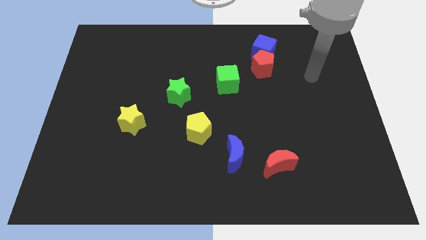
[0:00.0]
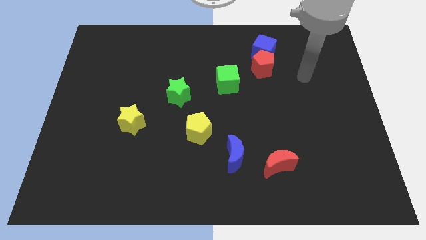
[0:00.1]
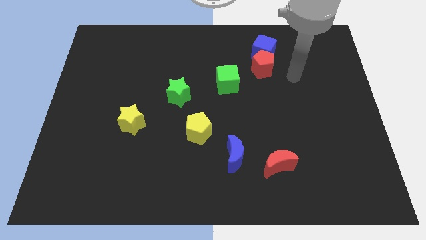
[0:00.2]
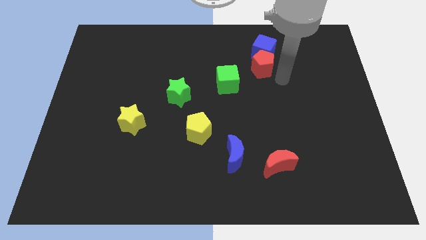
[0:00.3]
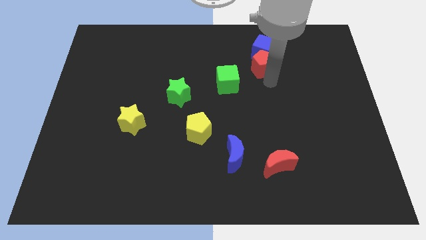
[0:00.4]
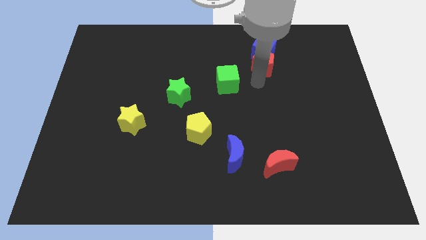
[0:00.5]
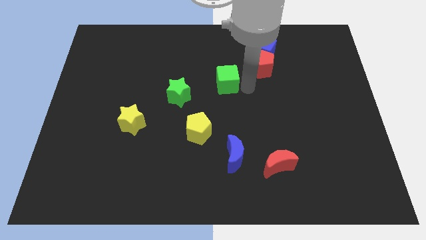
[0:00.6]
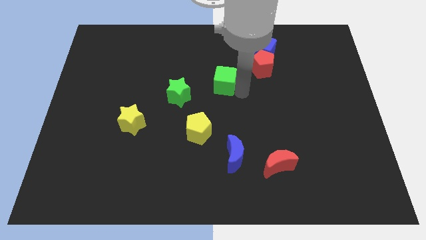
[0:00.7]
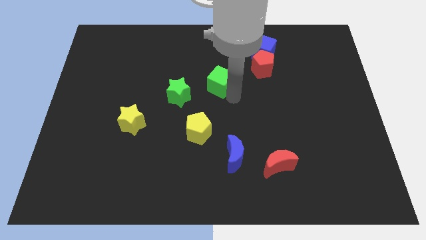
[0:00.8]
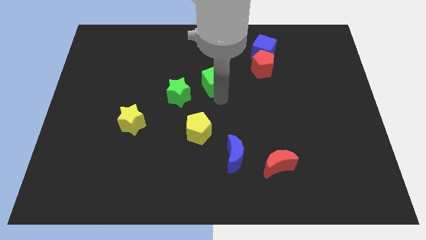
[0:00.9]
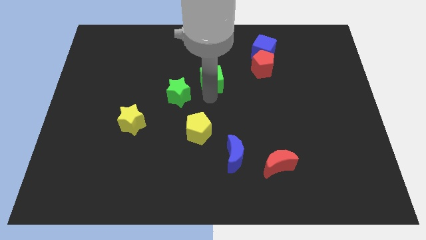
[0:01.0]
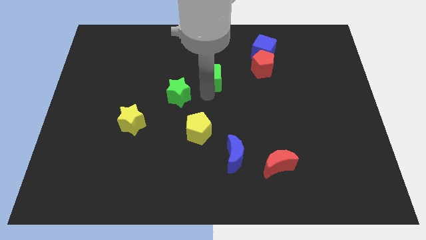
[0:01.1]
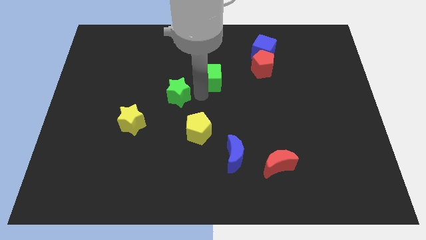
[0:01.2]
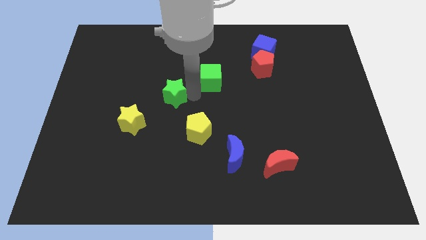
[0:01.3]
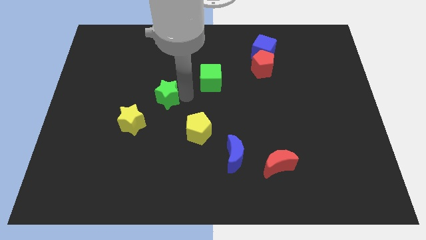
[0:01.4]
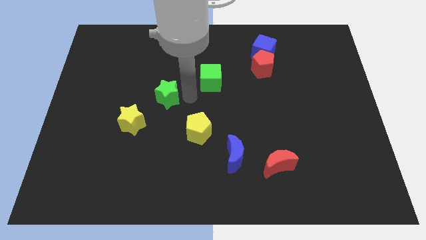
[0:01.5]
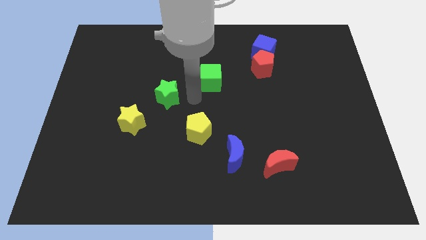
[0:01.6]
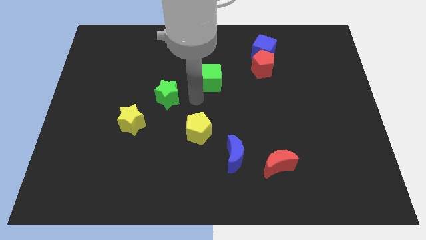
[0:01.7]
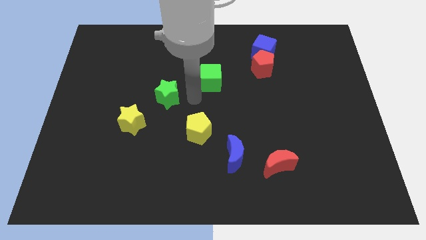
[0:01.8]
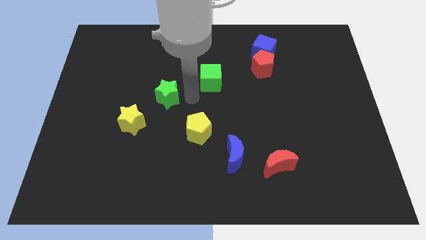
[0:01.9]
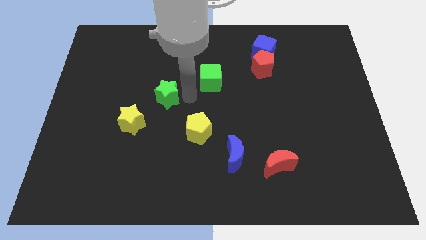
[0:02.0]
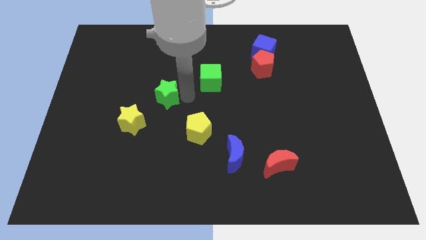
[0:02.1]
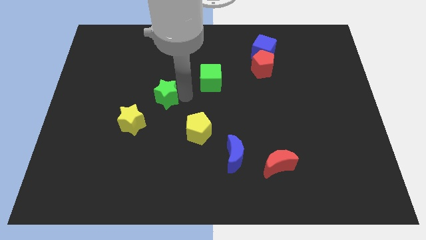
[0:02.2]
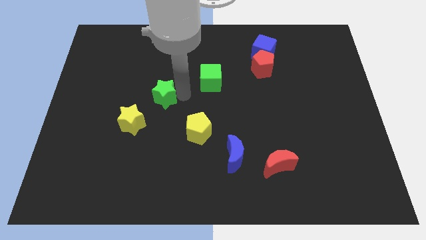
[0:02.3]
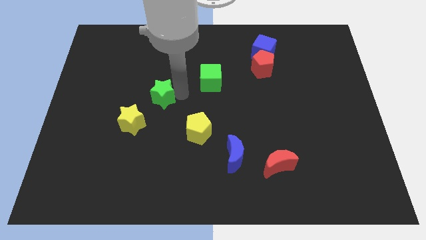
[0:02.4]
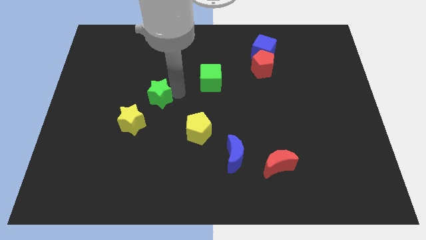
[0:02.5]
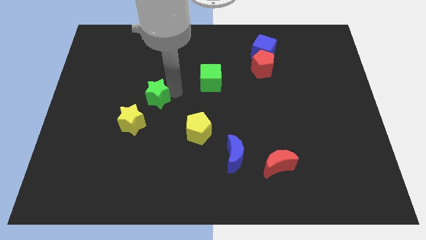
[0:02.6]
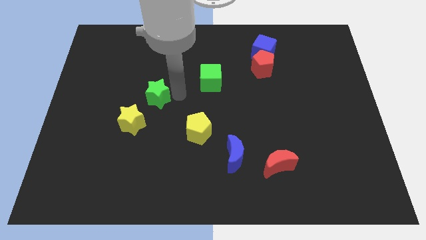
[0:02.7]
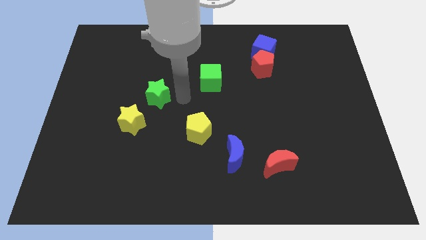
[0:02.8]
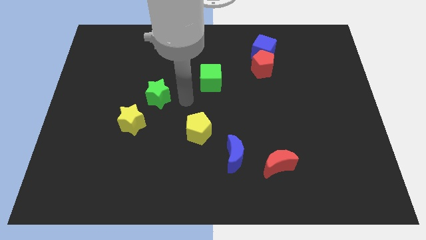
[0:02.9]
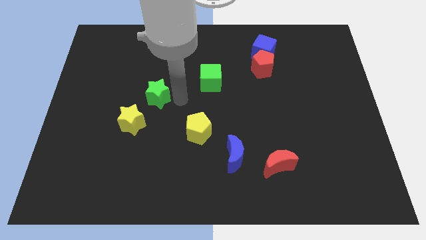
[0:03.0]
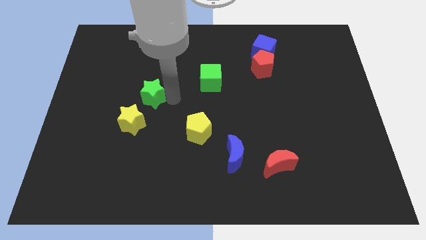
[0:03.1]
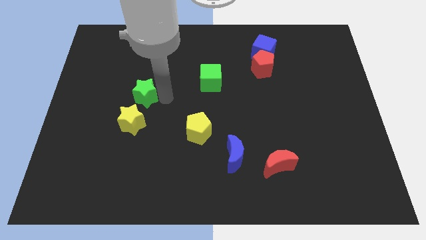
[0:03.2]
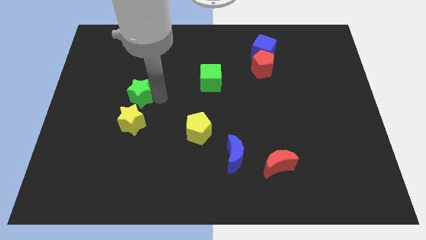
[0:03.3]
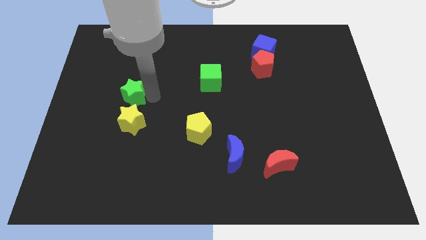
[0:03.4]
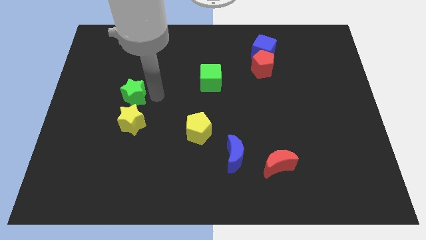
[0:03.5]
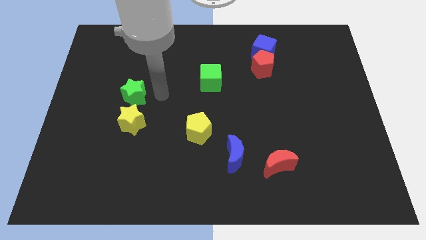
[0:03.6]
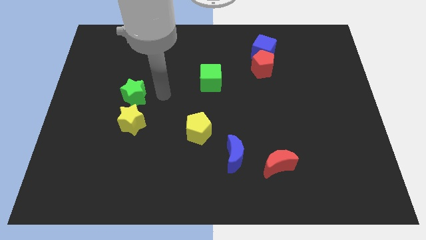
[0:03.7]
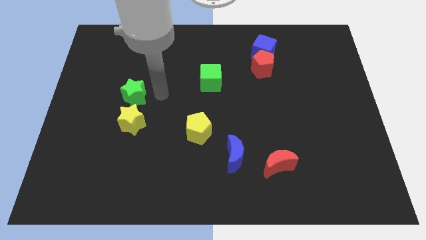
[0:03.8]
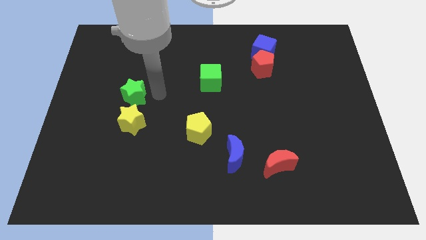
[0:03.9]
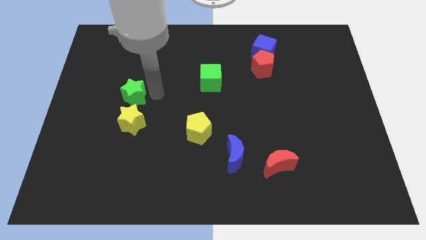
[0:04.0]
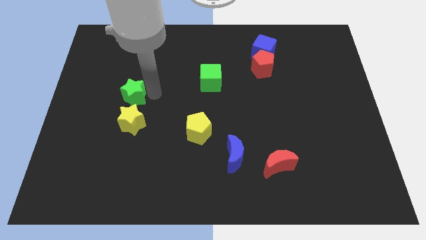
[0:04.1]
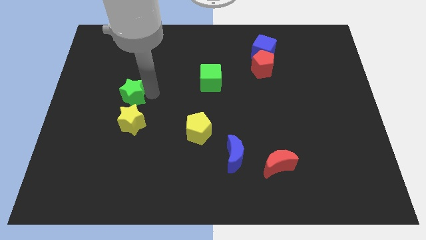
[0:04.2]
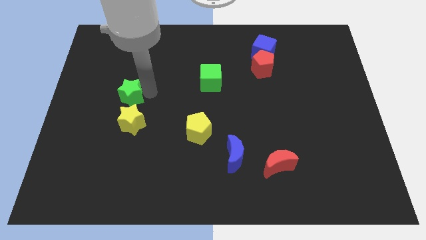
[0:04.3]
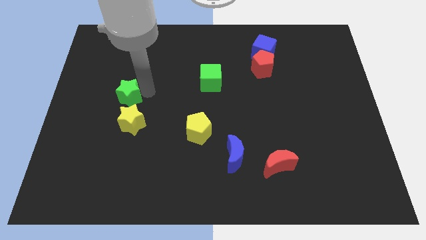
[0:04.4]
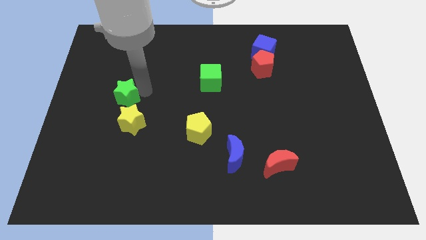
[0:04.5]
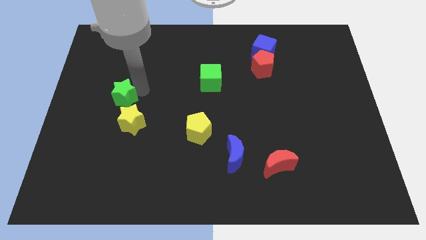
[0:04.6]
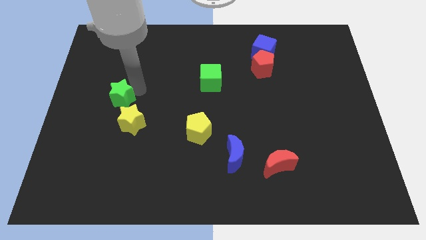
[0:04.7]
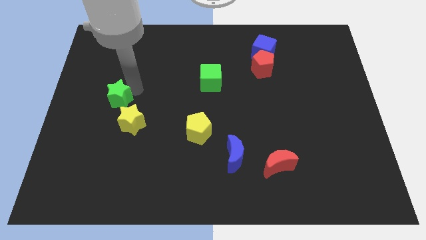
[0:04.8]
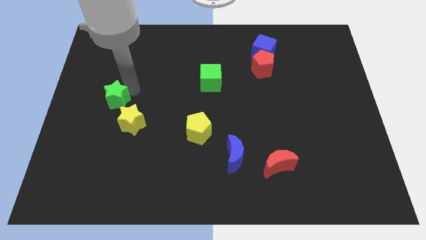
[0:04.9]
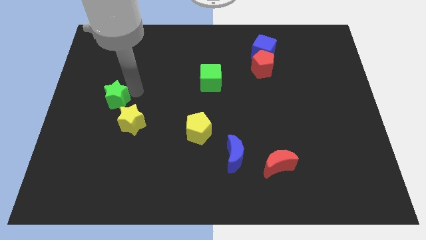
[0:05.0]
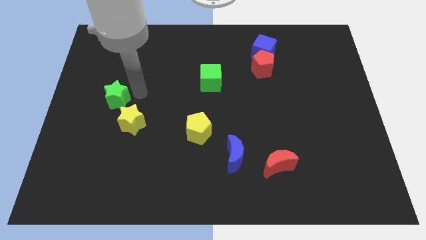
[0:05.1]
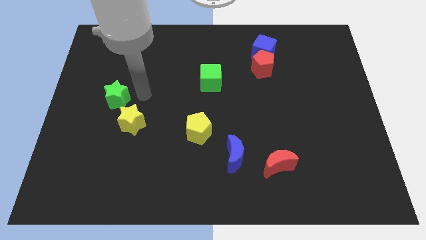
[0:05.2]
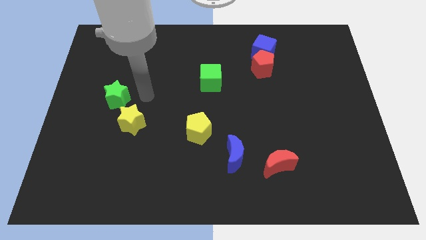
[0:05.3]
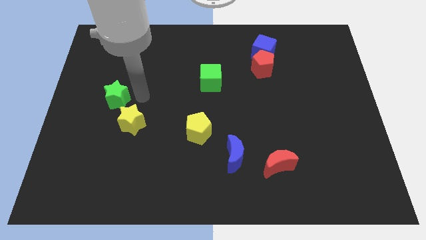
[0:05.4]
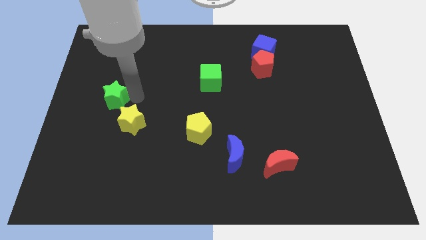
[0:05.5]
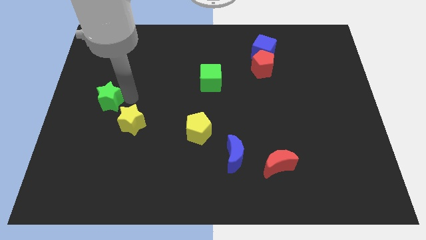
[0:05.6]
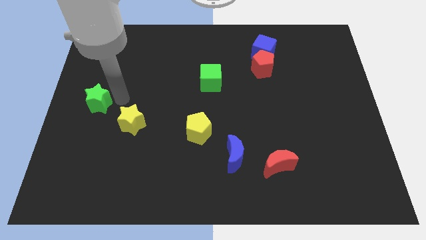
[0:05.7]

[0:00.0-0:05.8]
put the green star to the left side
